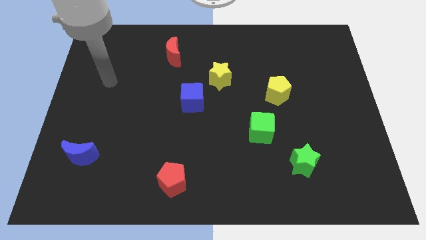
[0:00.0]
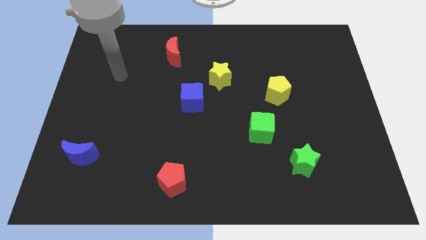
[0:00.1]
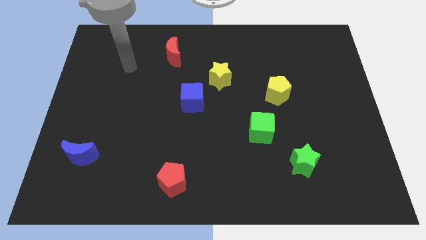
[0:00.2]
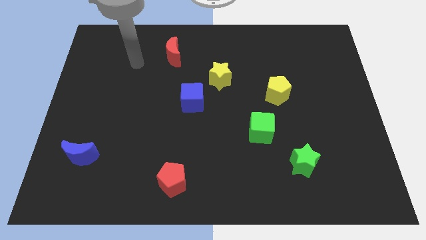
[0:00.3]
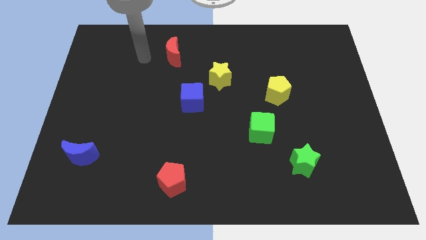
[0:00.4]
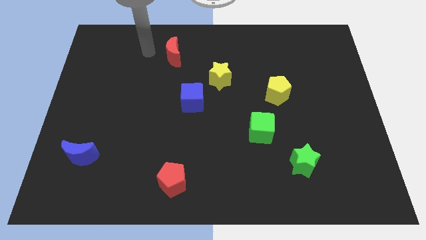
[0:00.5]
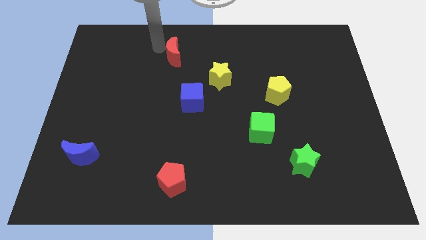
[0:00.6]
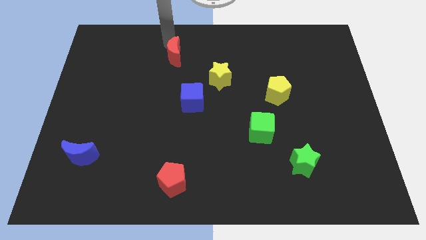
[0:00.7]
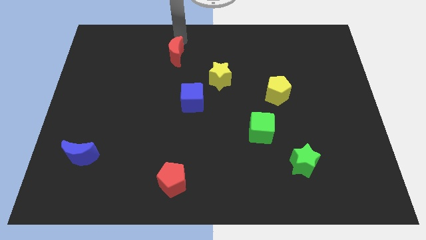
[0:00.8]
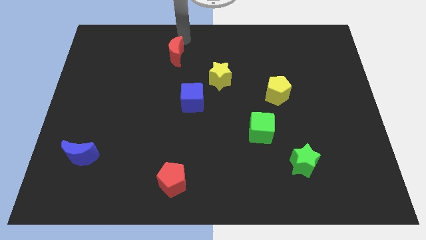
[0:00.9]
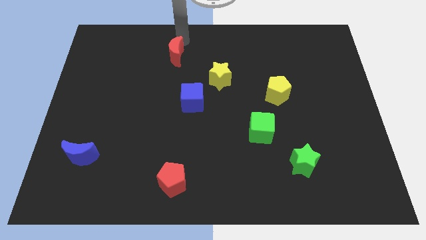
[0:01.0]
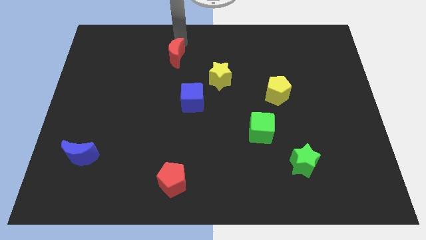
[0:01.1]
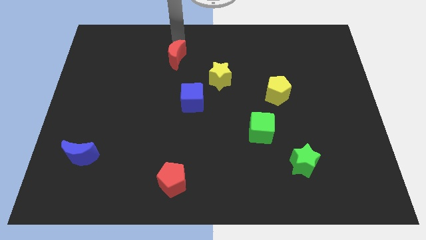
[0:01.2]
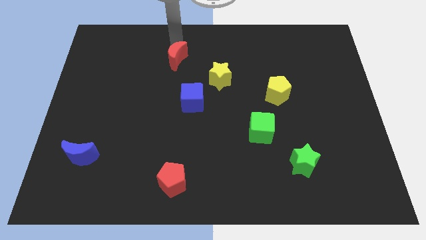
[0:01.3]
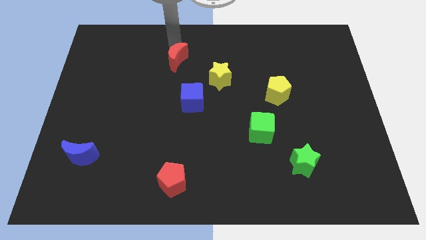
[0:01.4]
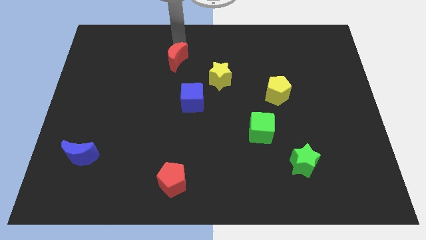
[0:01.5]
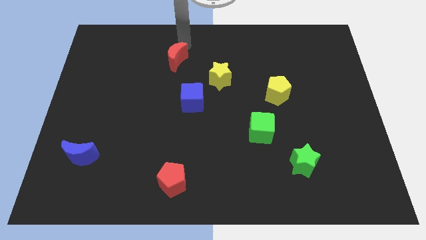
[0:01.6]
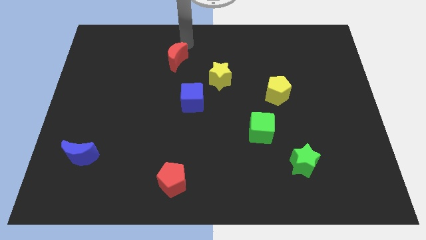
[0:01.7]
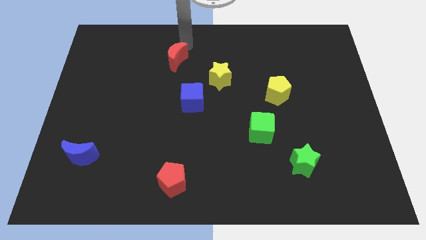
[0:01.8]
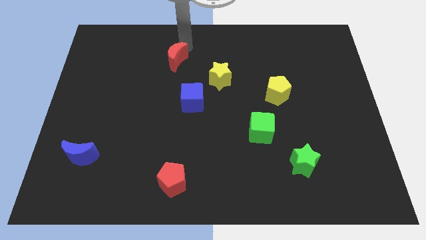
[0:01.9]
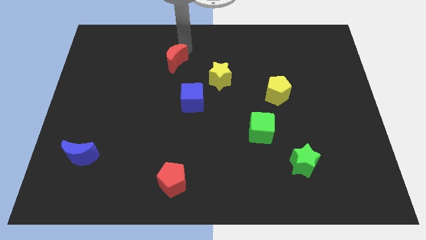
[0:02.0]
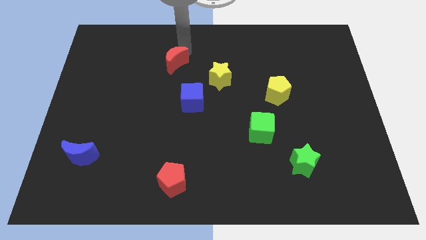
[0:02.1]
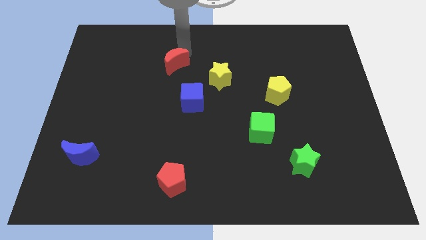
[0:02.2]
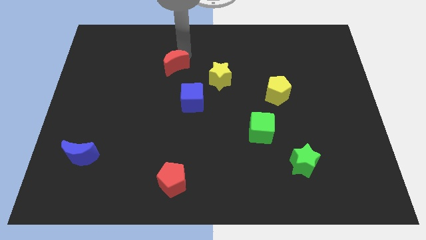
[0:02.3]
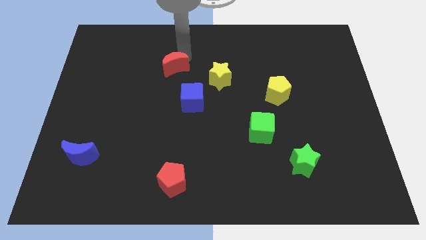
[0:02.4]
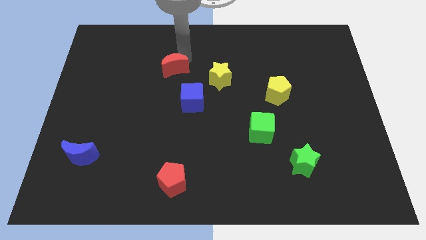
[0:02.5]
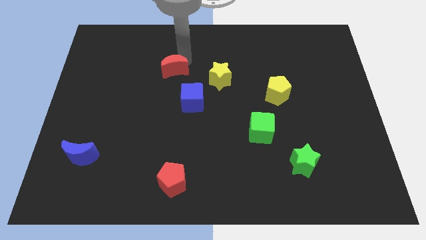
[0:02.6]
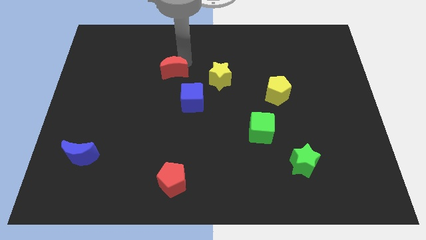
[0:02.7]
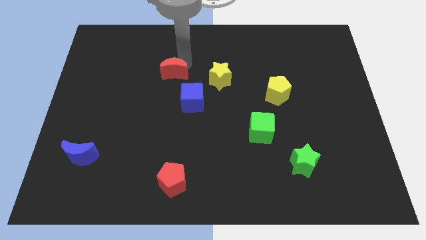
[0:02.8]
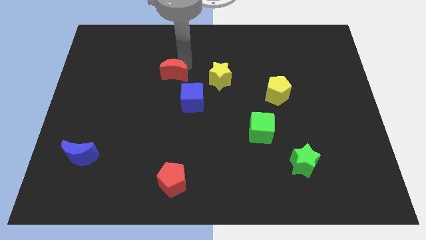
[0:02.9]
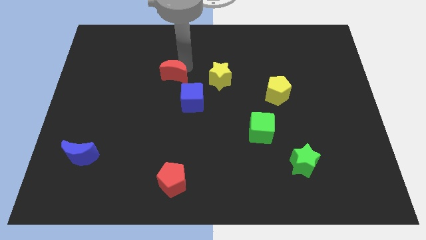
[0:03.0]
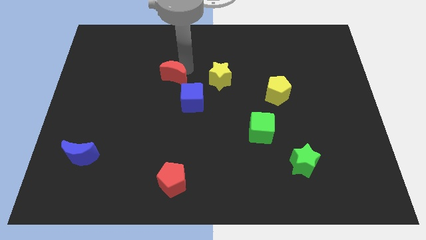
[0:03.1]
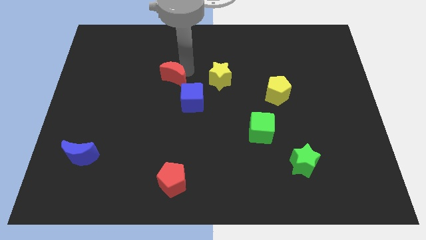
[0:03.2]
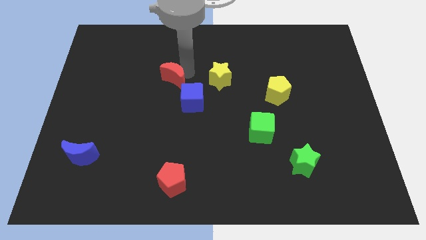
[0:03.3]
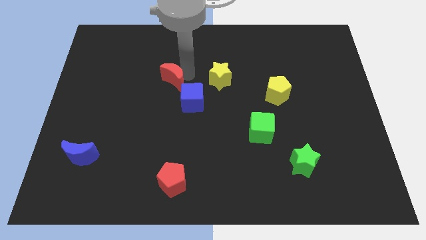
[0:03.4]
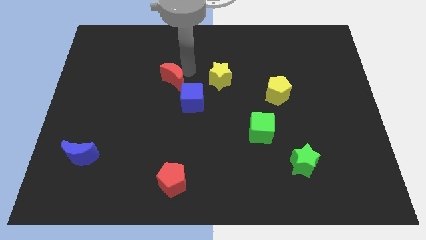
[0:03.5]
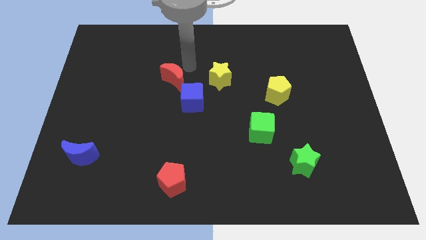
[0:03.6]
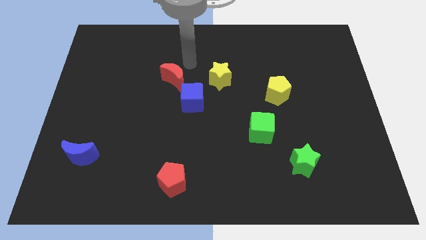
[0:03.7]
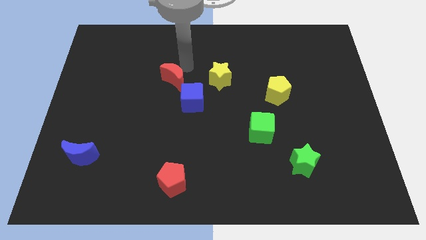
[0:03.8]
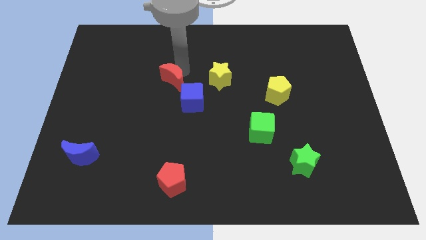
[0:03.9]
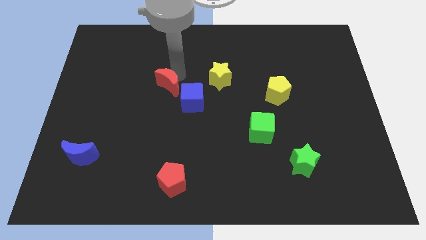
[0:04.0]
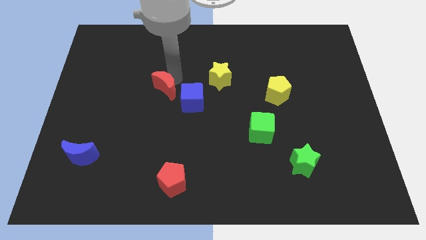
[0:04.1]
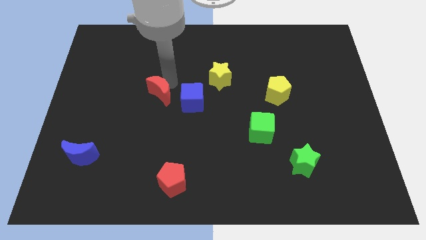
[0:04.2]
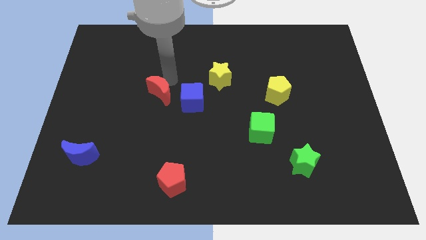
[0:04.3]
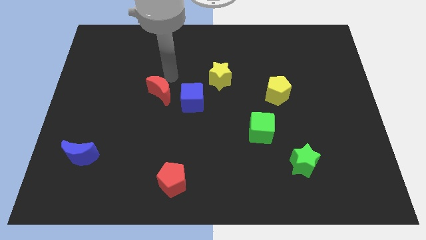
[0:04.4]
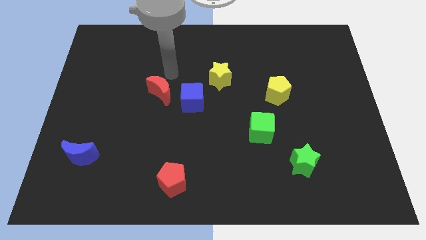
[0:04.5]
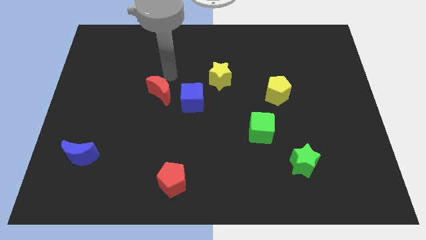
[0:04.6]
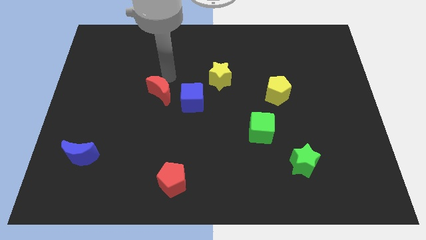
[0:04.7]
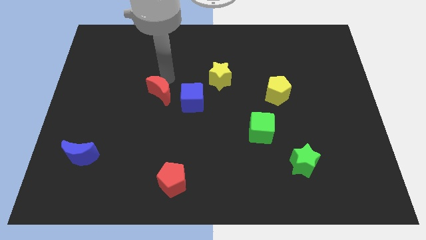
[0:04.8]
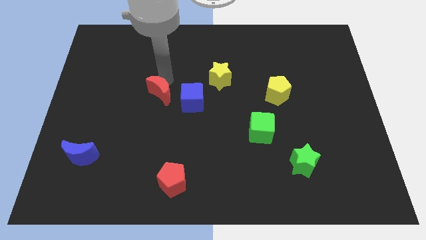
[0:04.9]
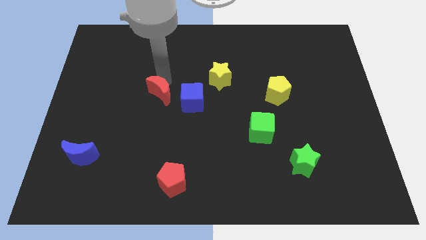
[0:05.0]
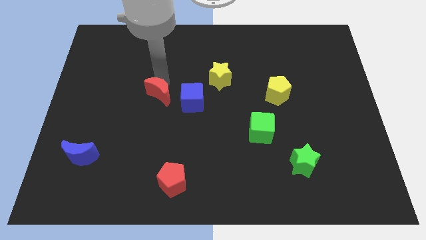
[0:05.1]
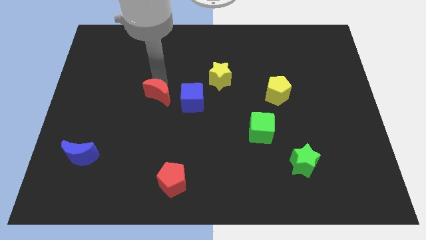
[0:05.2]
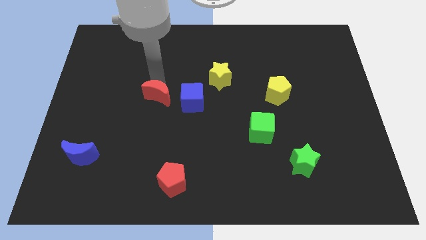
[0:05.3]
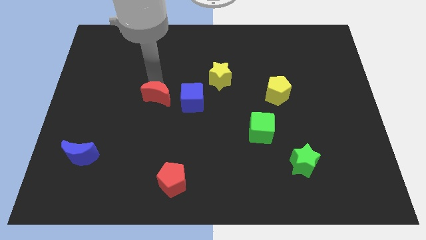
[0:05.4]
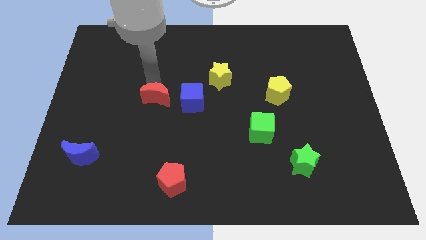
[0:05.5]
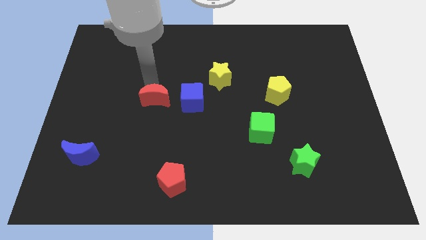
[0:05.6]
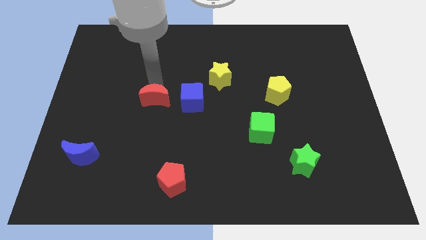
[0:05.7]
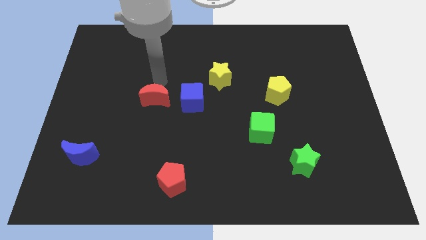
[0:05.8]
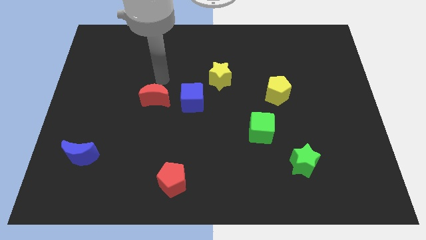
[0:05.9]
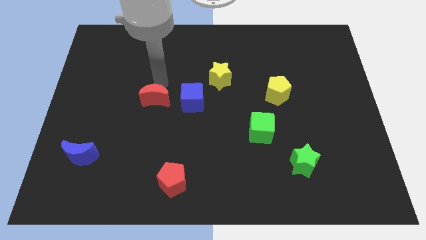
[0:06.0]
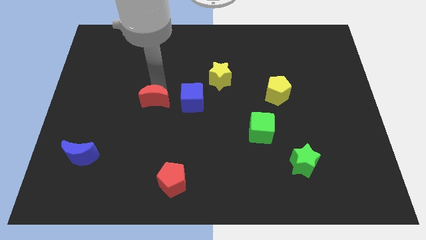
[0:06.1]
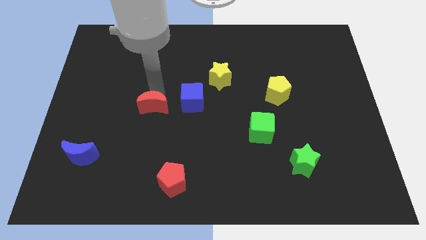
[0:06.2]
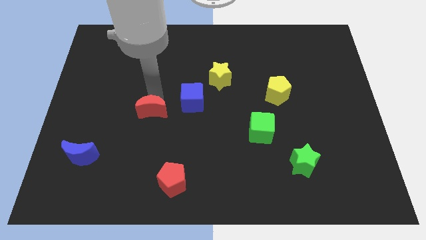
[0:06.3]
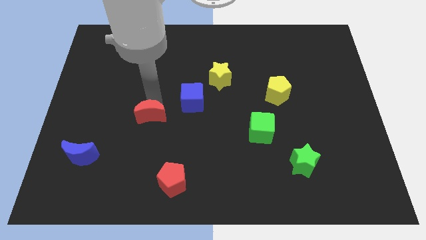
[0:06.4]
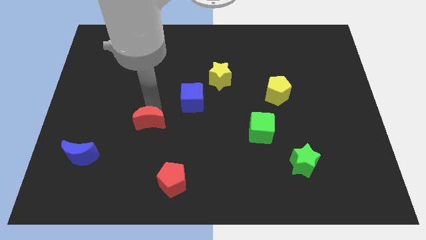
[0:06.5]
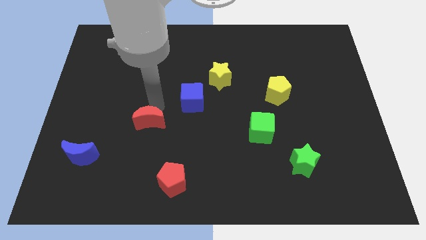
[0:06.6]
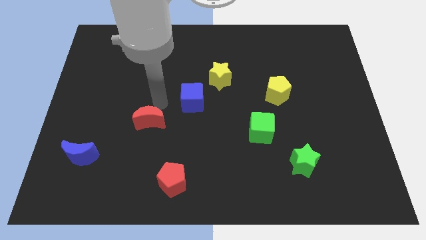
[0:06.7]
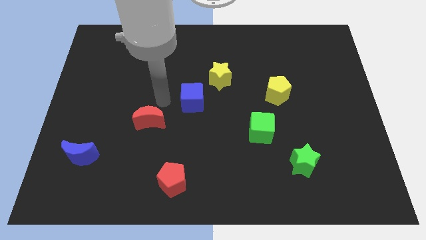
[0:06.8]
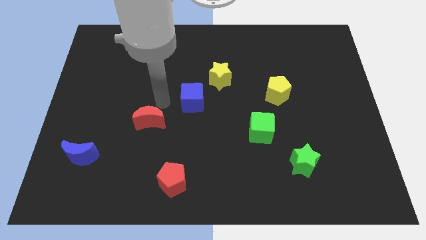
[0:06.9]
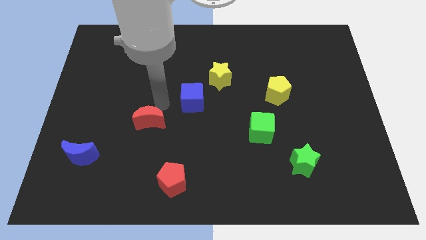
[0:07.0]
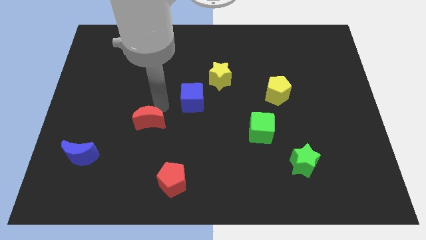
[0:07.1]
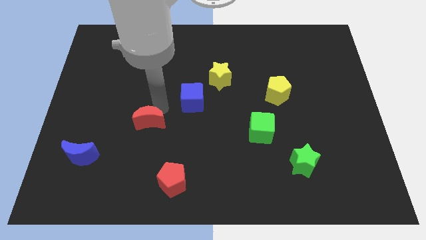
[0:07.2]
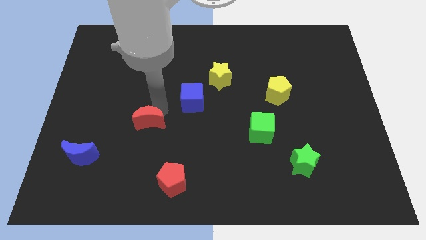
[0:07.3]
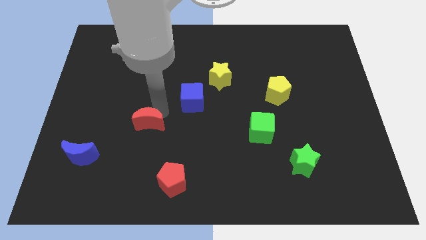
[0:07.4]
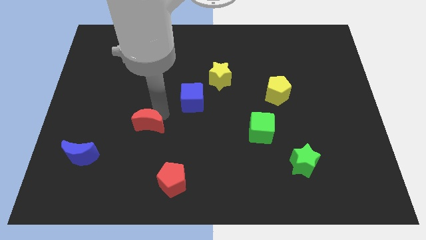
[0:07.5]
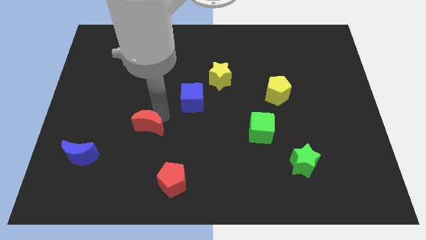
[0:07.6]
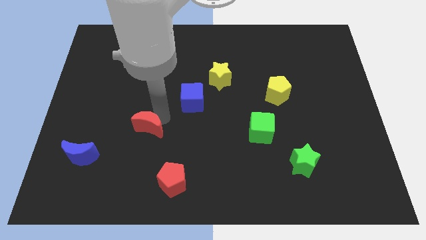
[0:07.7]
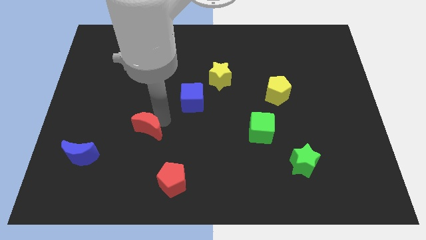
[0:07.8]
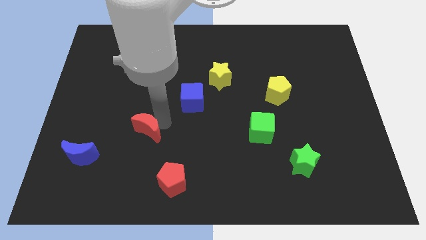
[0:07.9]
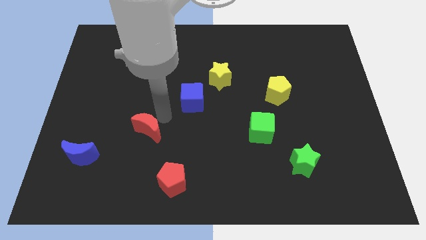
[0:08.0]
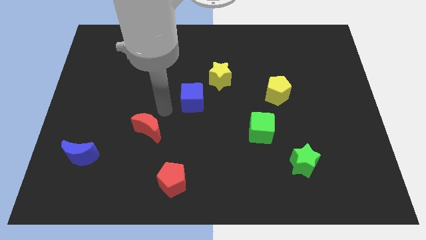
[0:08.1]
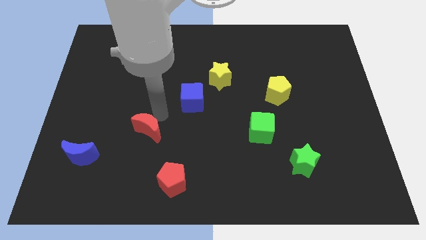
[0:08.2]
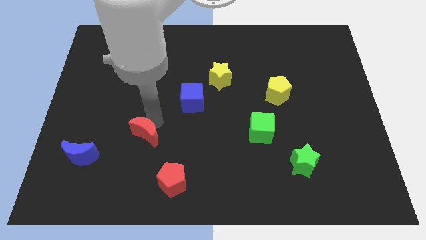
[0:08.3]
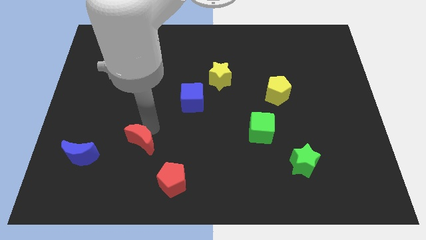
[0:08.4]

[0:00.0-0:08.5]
push the red moon to the right of the blue moon
